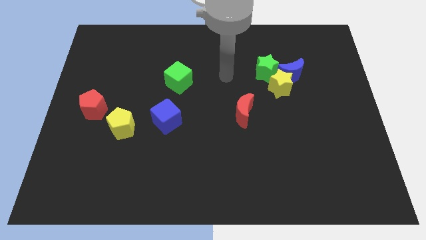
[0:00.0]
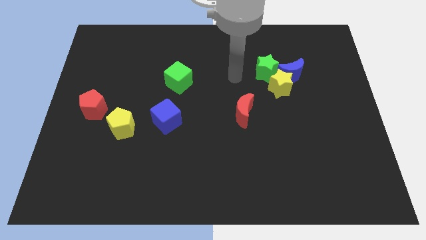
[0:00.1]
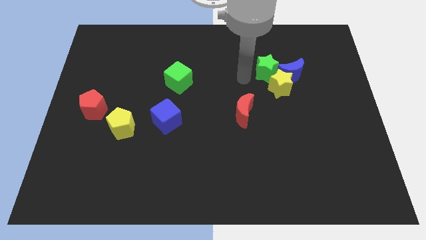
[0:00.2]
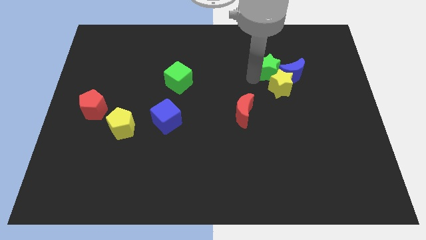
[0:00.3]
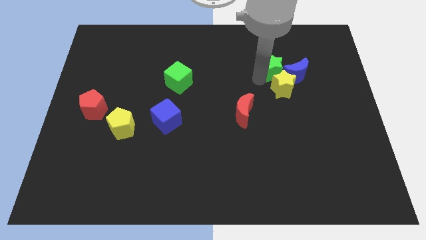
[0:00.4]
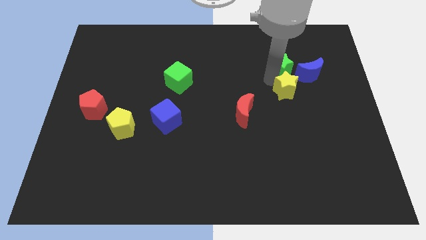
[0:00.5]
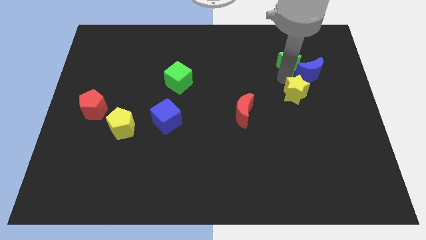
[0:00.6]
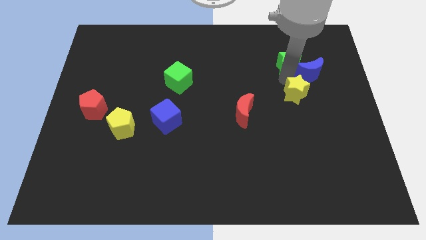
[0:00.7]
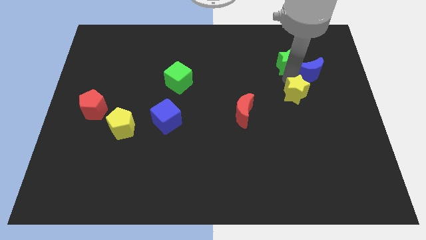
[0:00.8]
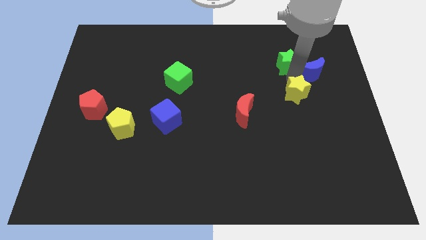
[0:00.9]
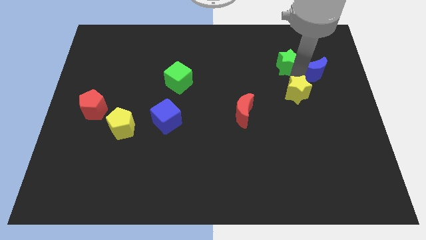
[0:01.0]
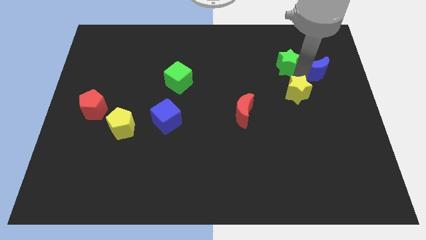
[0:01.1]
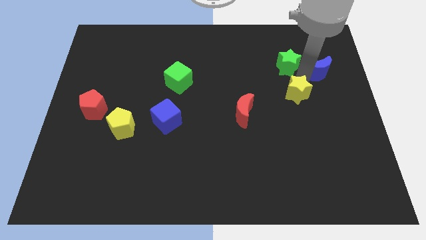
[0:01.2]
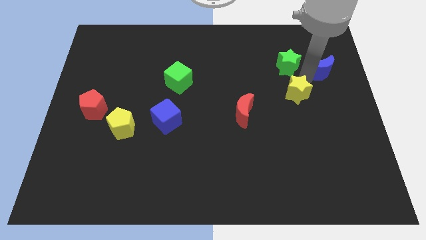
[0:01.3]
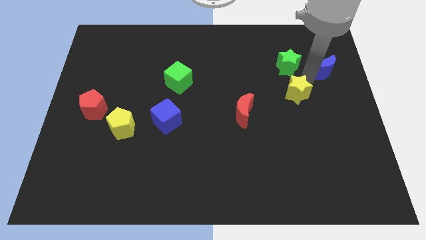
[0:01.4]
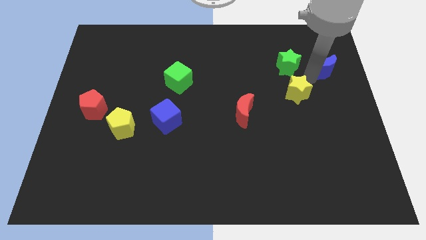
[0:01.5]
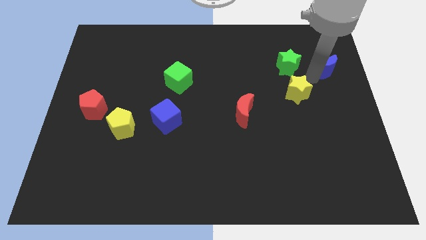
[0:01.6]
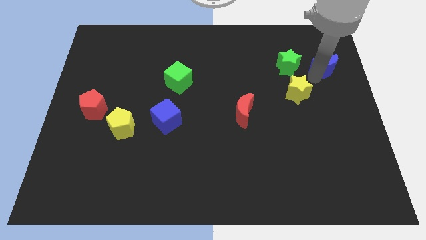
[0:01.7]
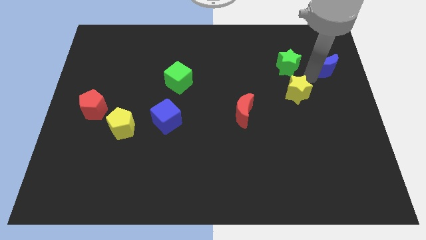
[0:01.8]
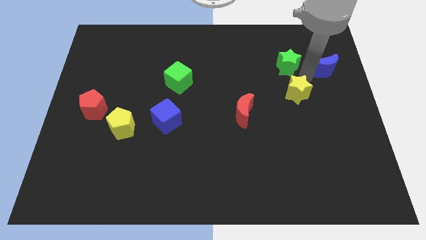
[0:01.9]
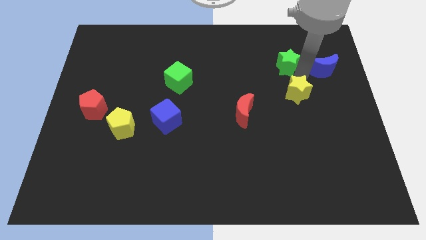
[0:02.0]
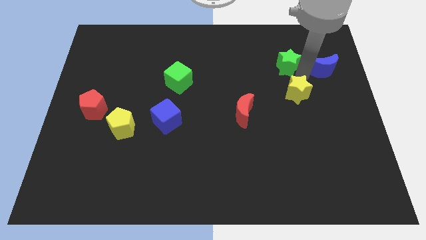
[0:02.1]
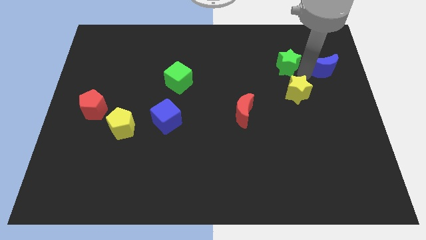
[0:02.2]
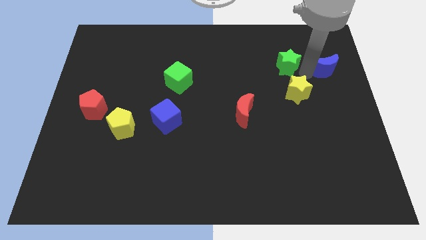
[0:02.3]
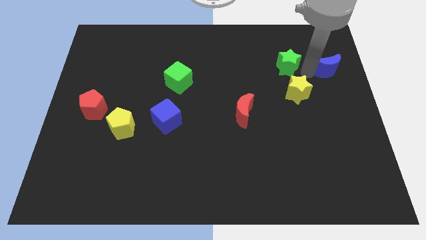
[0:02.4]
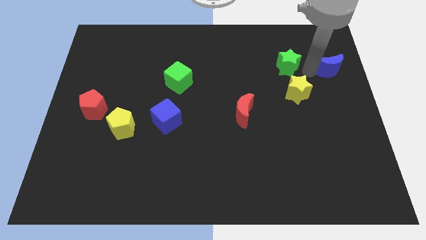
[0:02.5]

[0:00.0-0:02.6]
pull the blue moon apart from the yellow star and green star

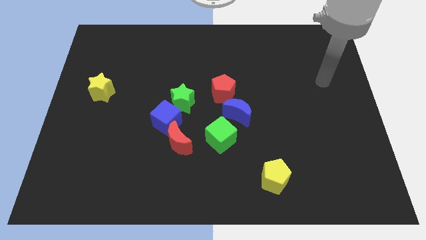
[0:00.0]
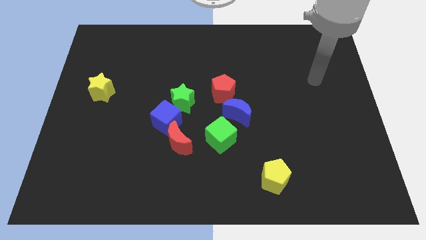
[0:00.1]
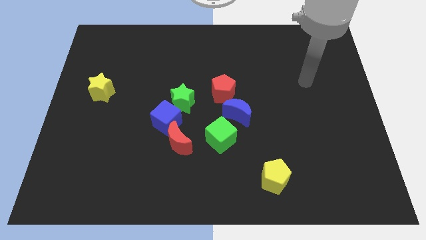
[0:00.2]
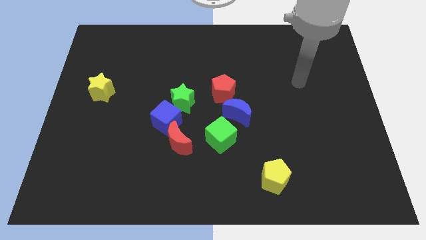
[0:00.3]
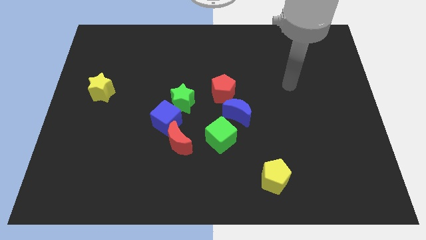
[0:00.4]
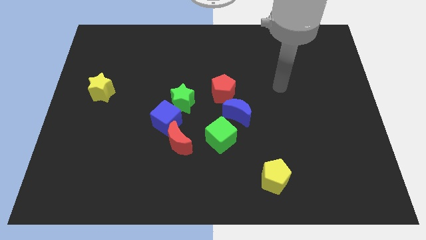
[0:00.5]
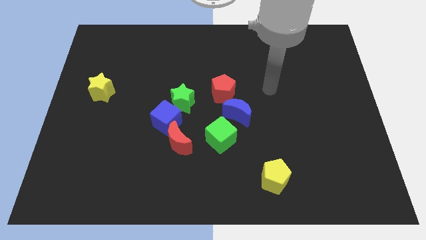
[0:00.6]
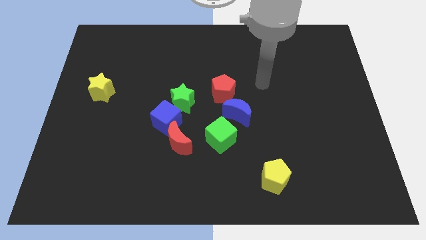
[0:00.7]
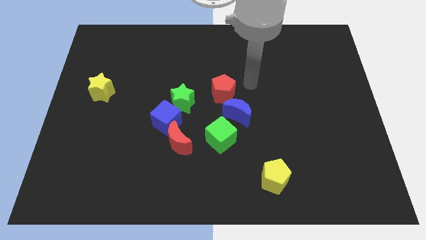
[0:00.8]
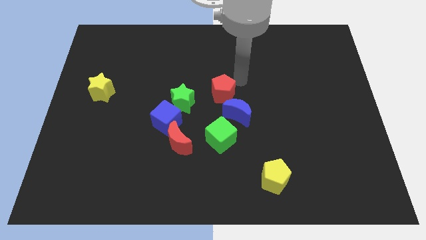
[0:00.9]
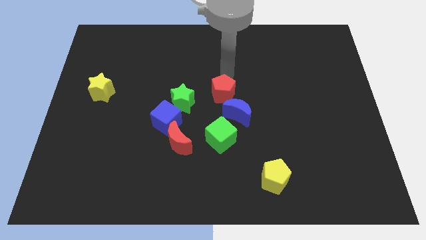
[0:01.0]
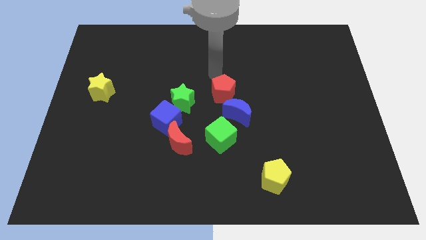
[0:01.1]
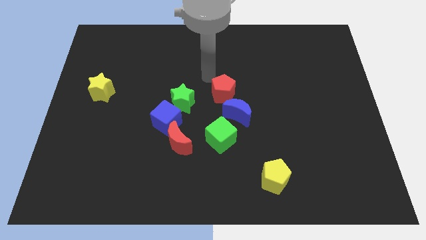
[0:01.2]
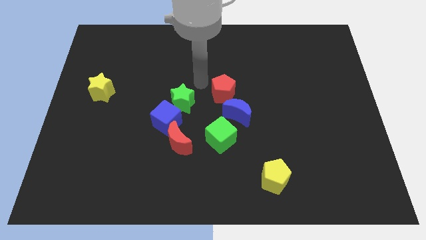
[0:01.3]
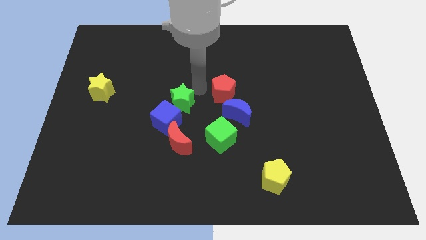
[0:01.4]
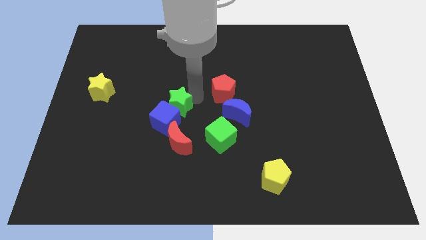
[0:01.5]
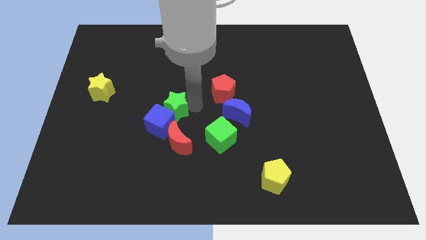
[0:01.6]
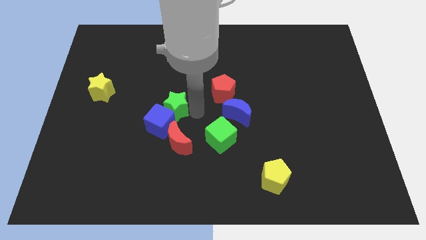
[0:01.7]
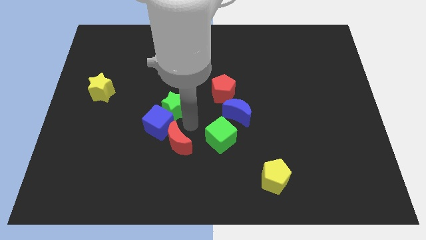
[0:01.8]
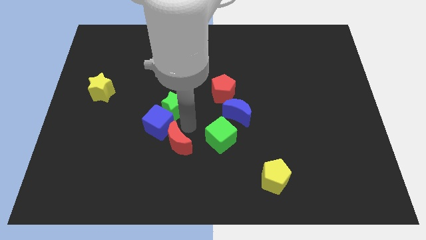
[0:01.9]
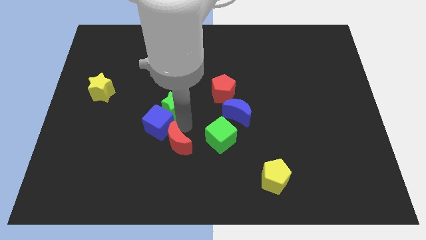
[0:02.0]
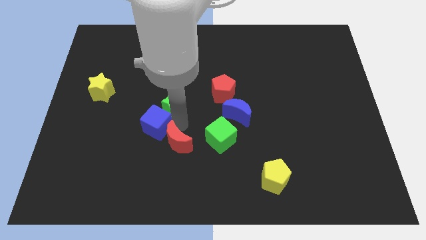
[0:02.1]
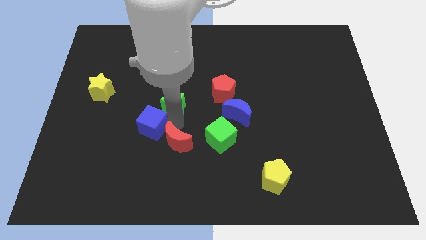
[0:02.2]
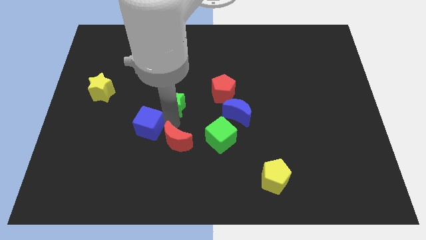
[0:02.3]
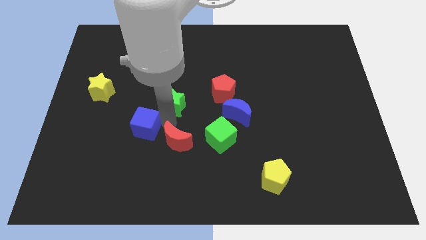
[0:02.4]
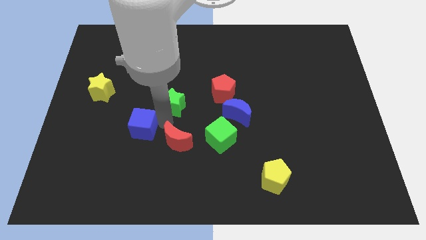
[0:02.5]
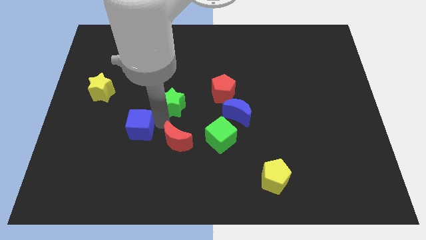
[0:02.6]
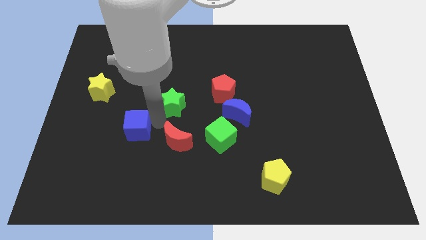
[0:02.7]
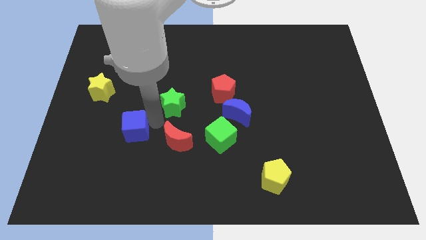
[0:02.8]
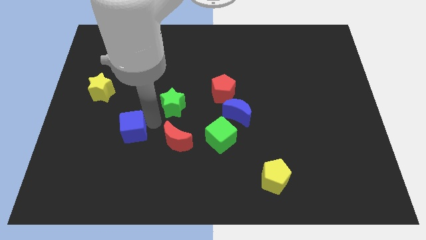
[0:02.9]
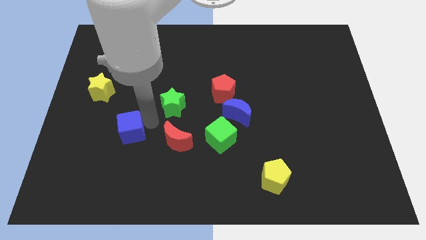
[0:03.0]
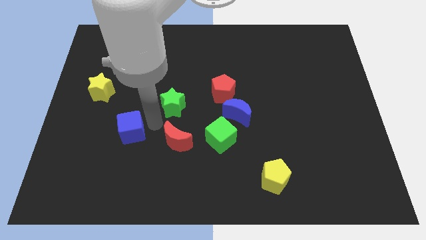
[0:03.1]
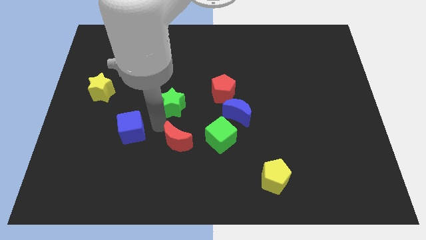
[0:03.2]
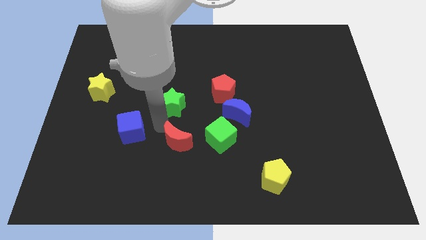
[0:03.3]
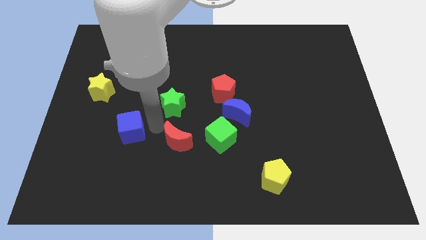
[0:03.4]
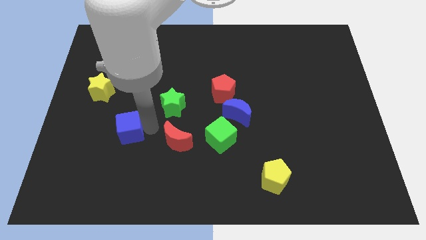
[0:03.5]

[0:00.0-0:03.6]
move the blue cube away from the red moon and green star

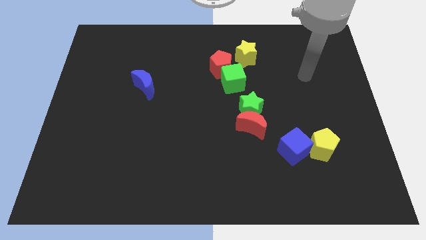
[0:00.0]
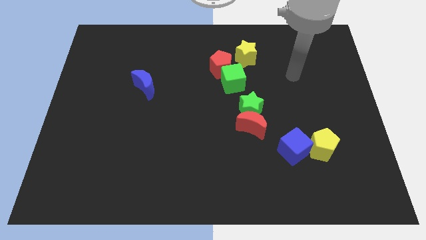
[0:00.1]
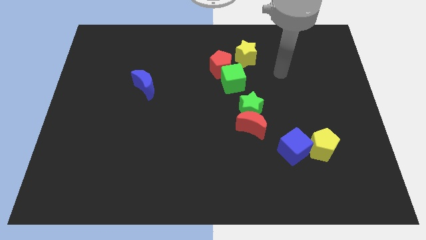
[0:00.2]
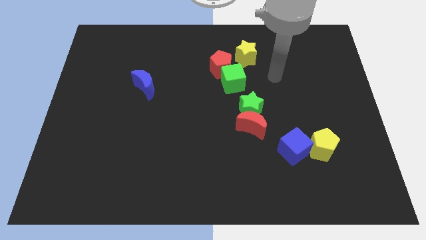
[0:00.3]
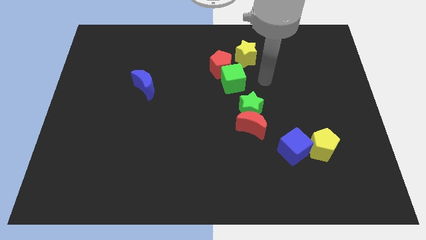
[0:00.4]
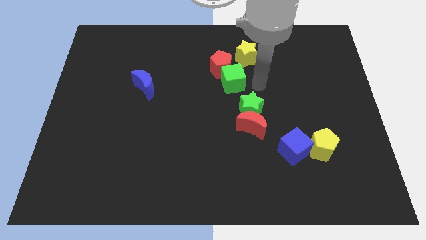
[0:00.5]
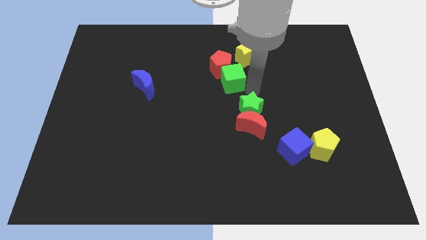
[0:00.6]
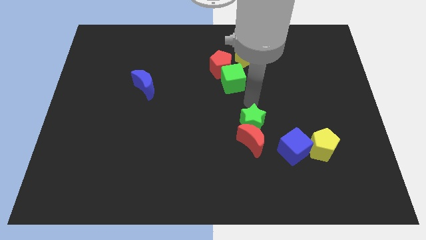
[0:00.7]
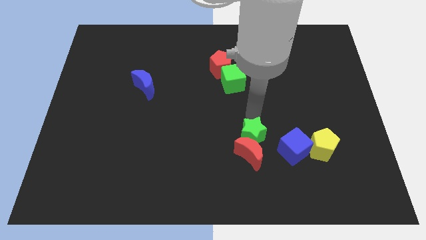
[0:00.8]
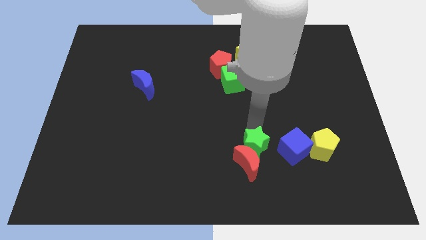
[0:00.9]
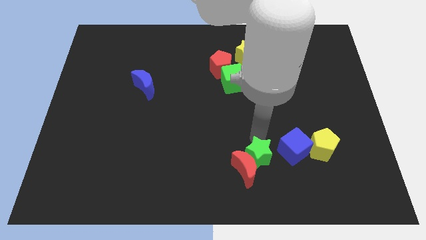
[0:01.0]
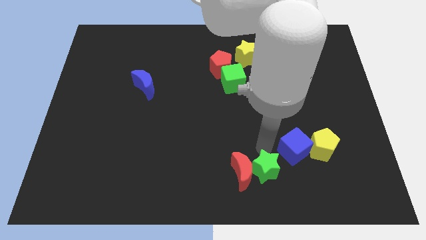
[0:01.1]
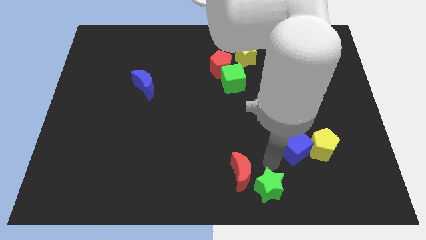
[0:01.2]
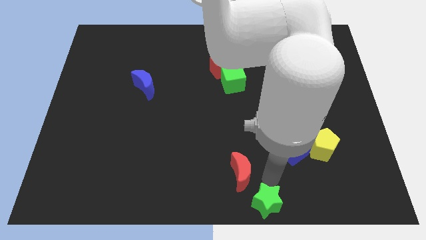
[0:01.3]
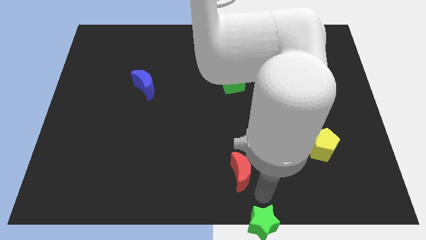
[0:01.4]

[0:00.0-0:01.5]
separate the red moon from the green star

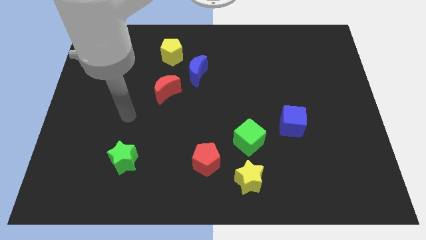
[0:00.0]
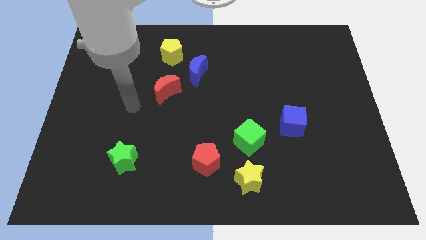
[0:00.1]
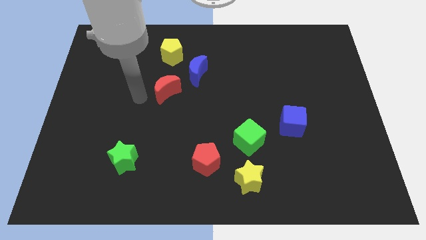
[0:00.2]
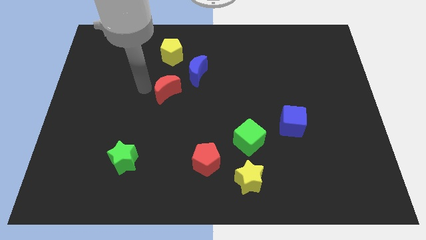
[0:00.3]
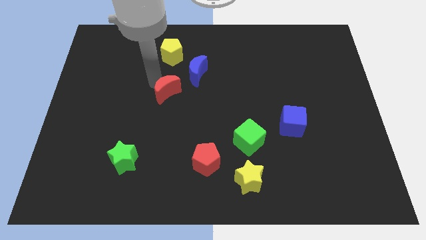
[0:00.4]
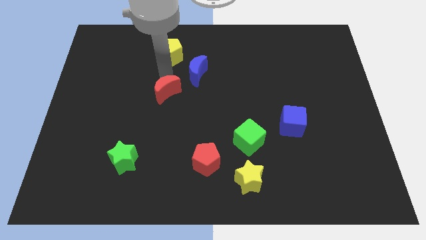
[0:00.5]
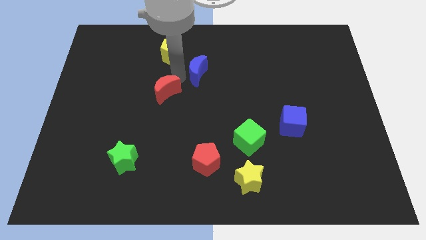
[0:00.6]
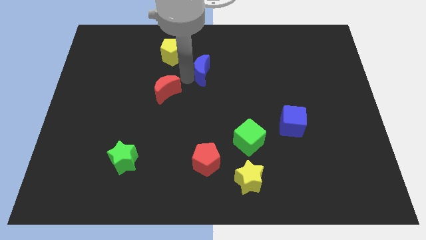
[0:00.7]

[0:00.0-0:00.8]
move the red moon away from the blue moon

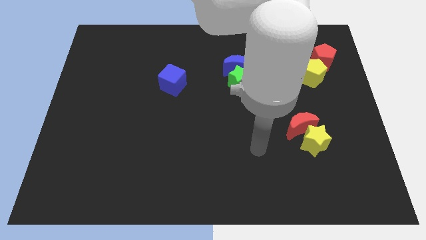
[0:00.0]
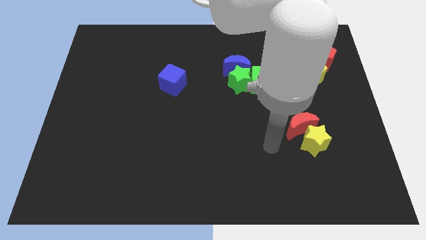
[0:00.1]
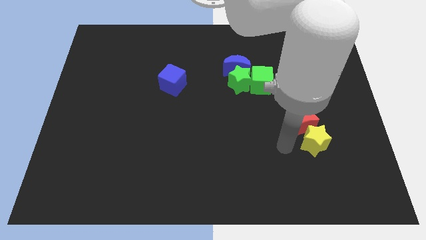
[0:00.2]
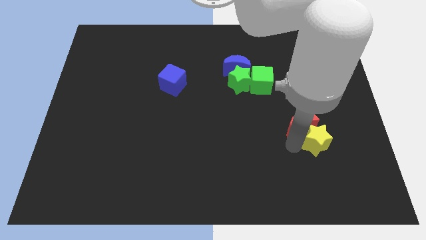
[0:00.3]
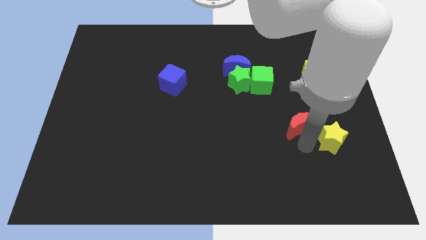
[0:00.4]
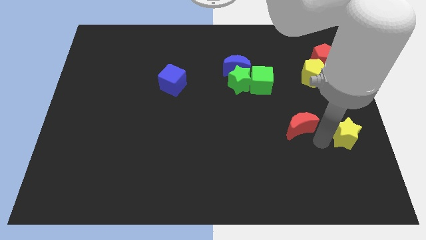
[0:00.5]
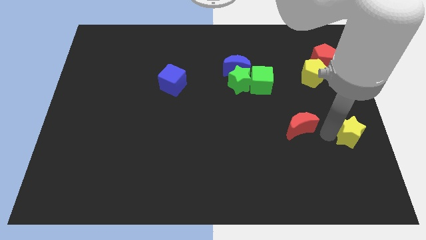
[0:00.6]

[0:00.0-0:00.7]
move the red moon away from the yellow star

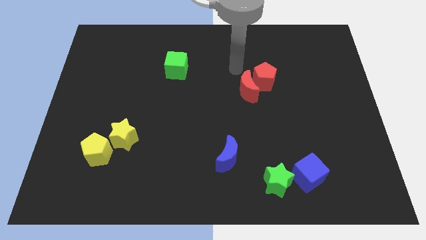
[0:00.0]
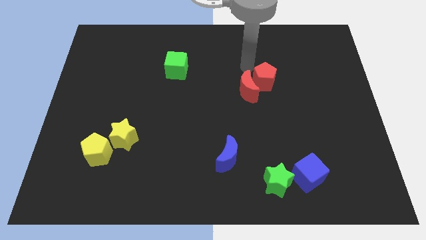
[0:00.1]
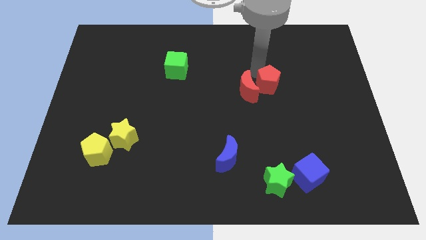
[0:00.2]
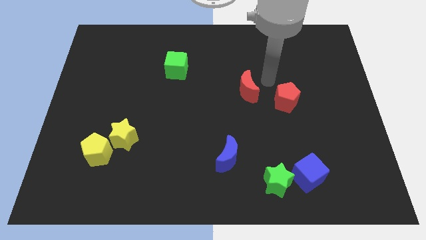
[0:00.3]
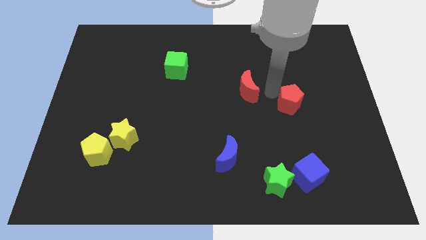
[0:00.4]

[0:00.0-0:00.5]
separate the red moon from the red pentagon
